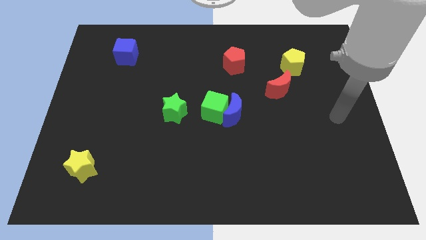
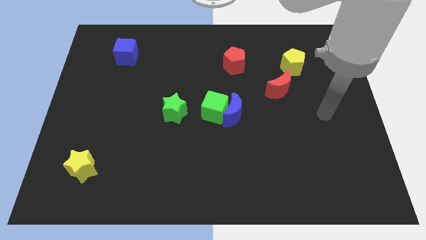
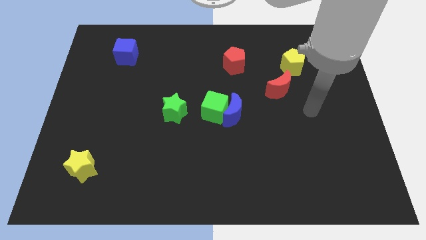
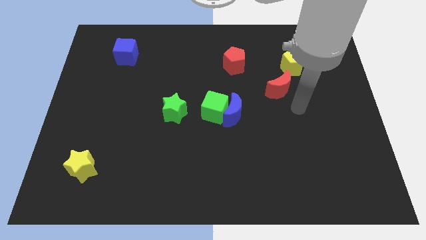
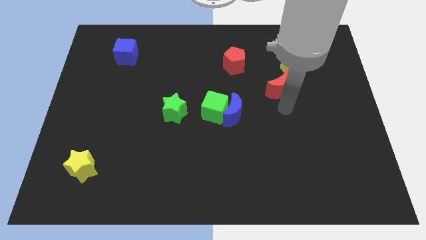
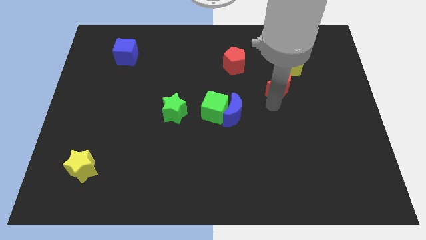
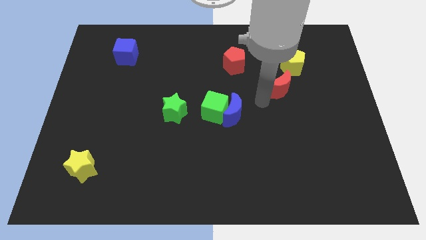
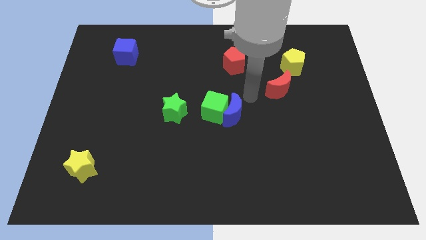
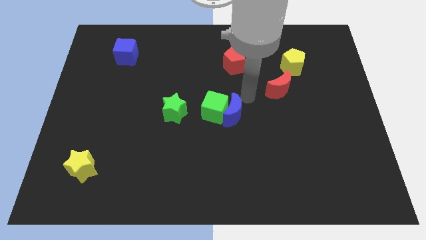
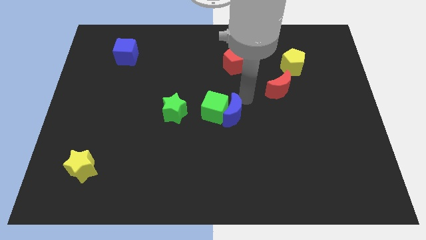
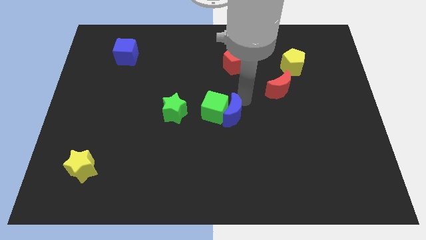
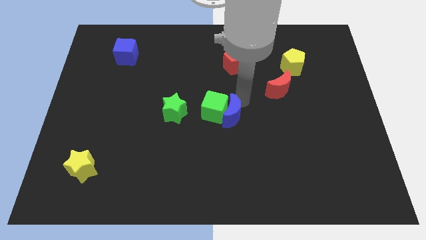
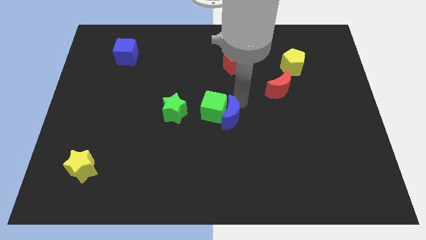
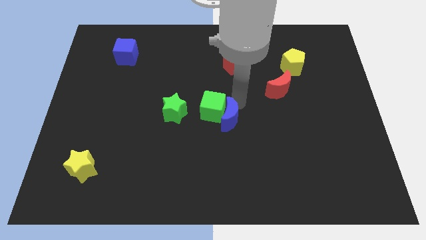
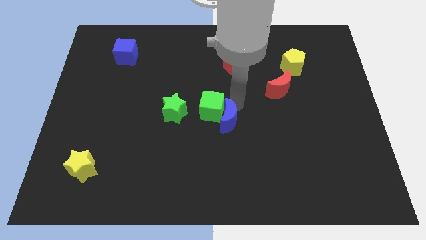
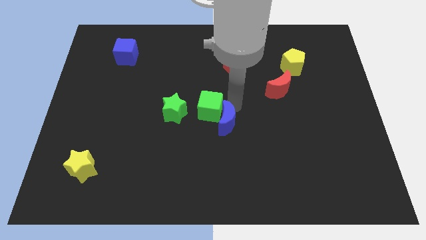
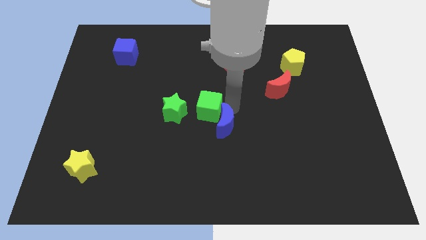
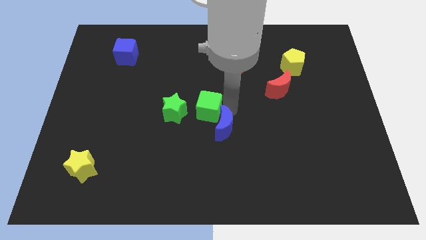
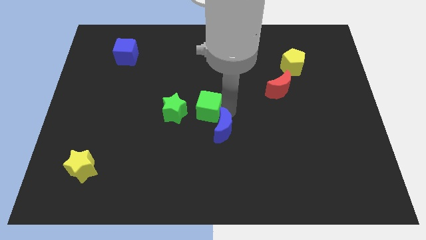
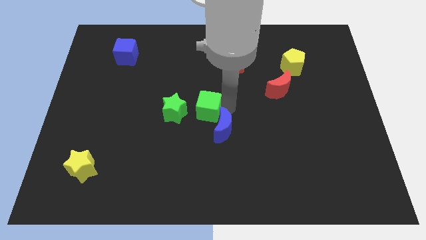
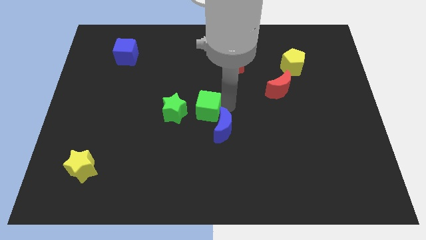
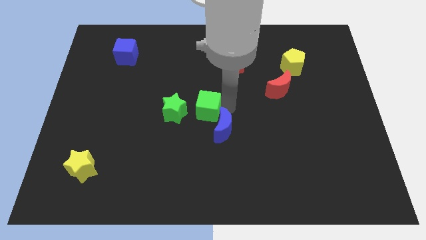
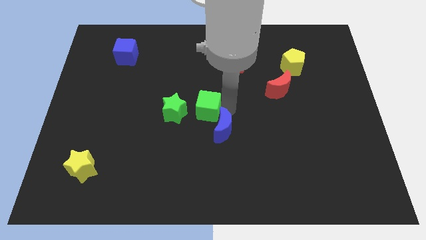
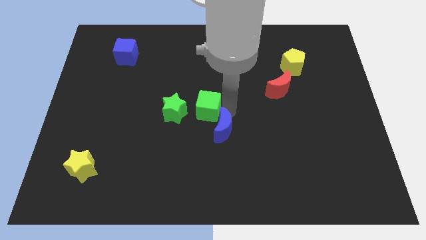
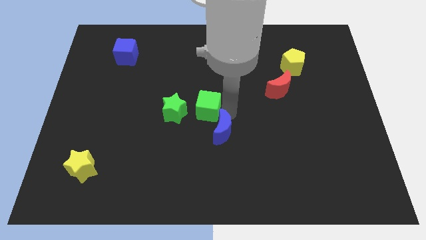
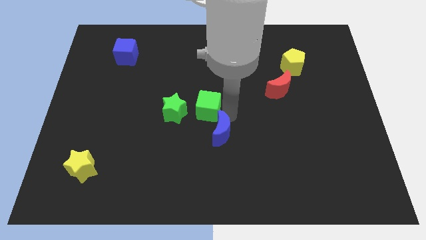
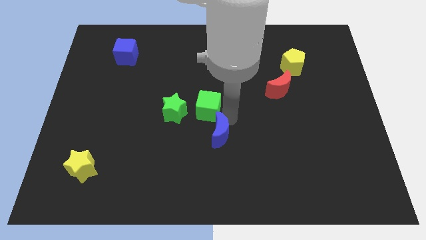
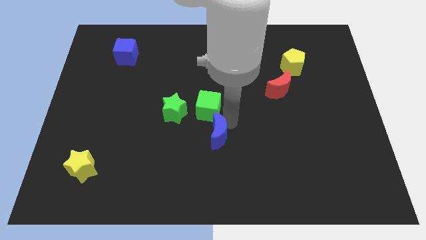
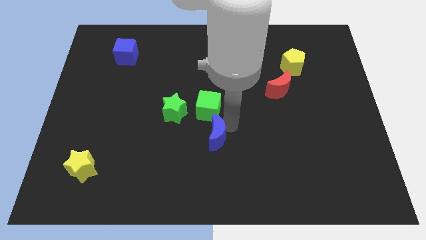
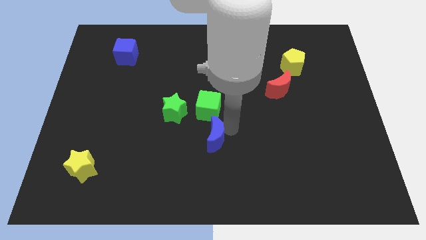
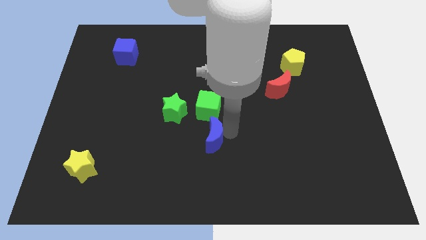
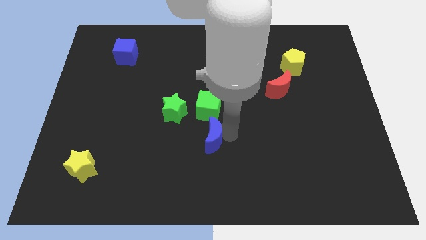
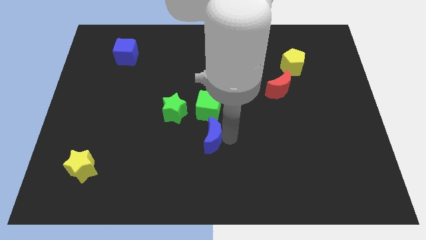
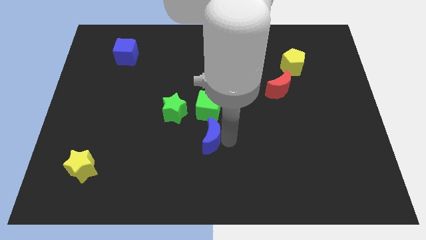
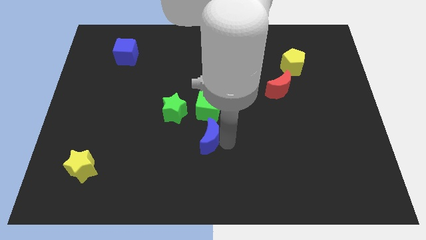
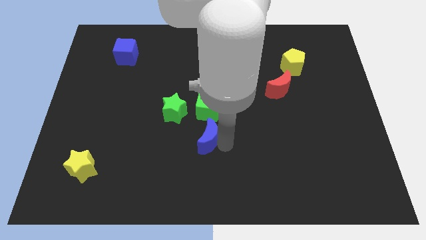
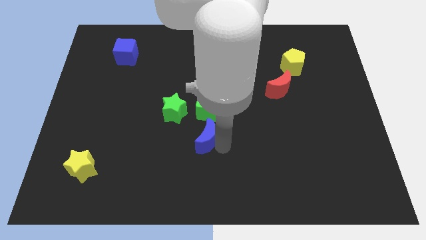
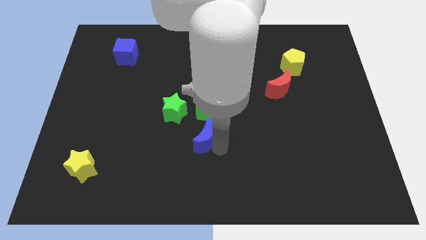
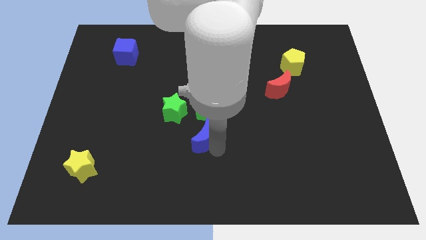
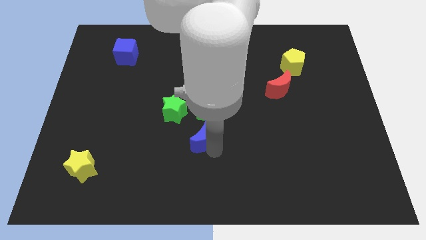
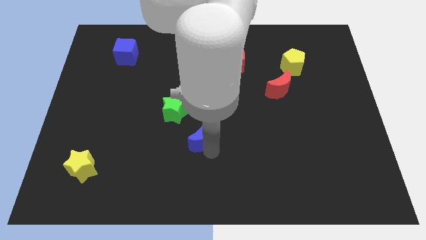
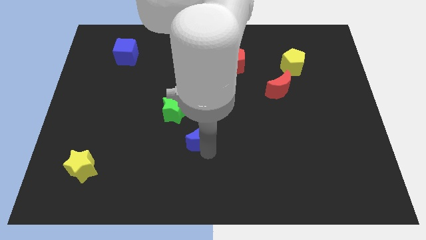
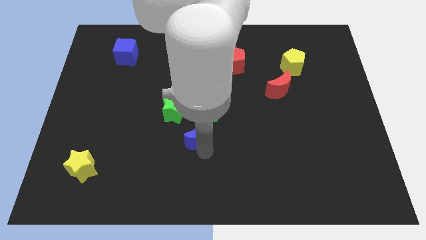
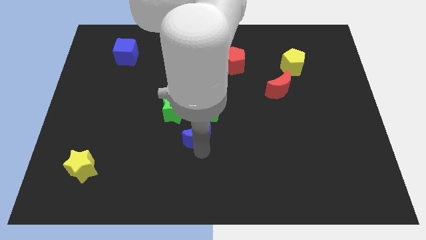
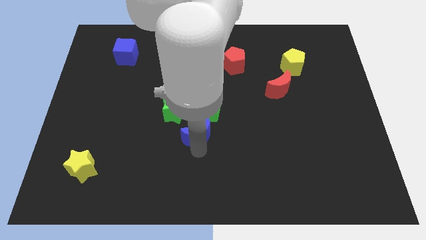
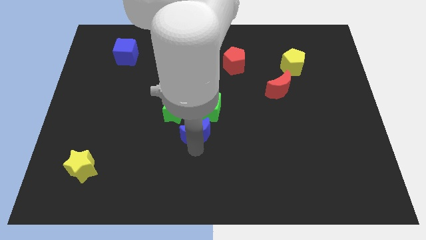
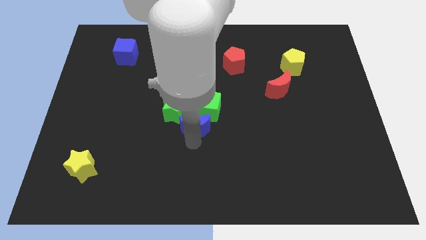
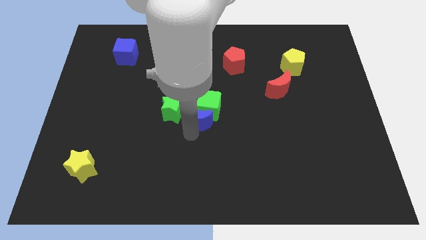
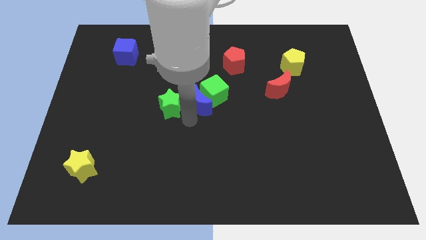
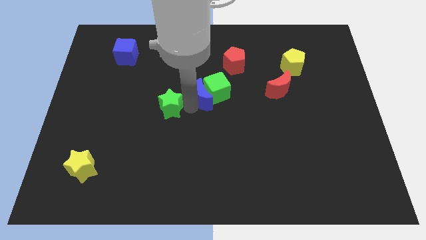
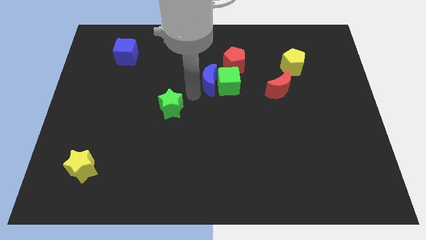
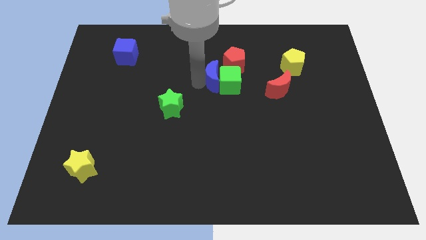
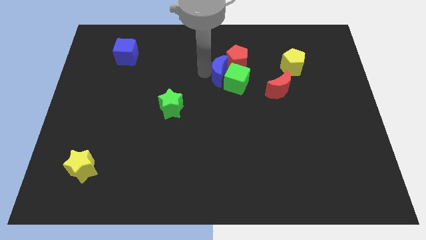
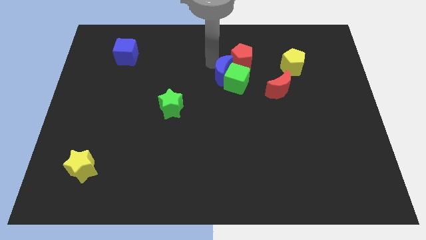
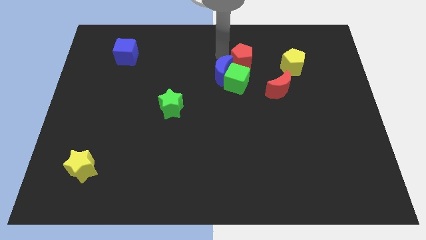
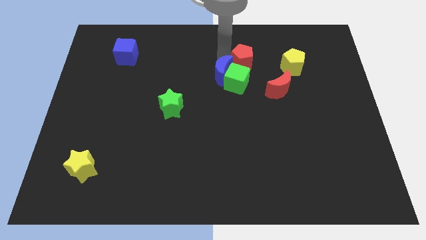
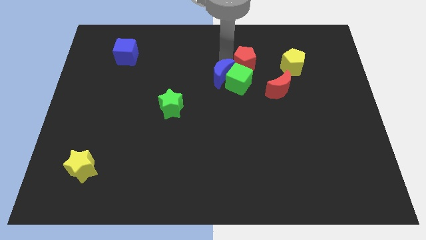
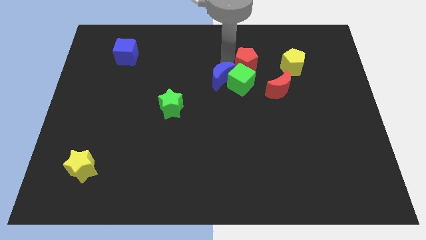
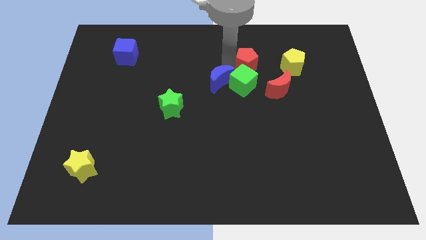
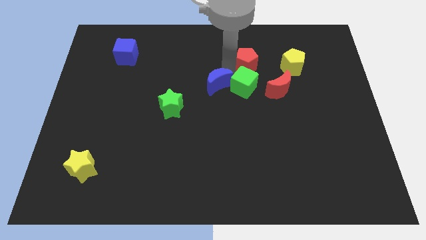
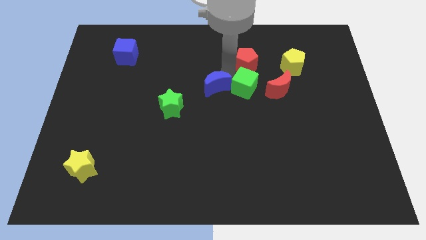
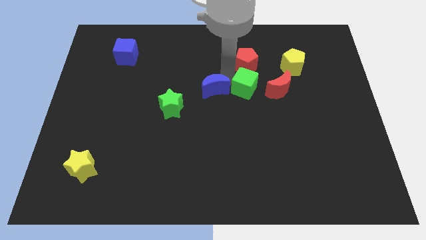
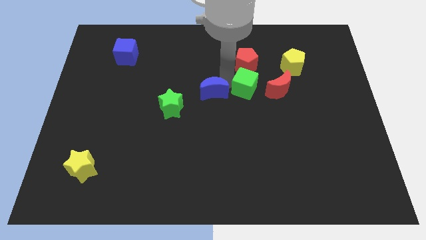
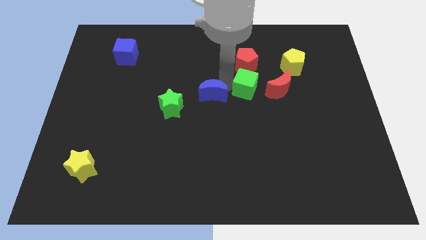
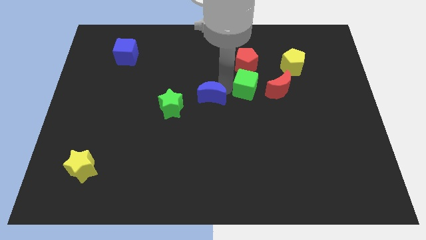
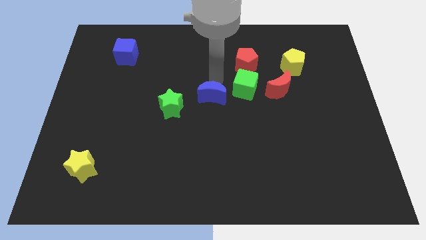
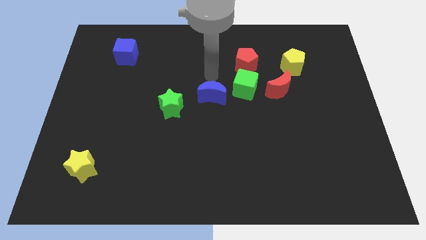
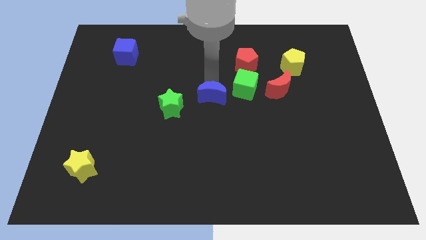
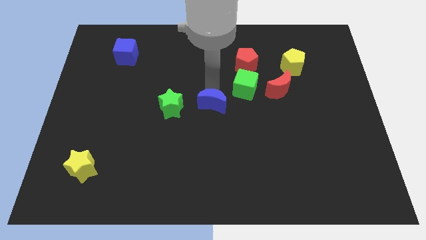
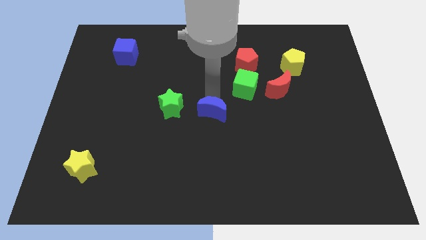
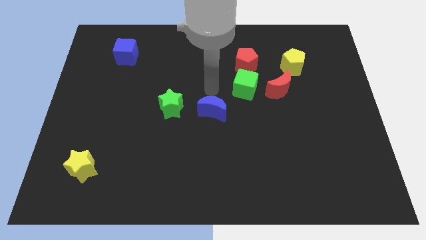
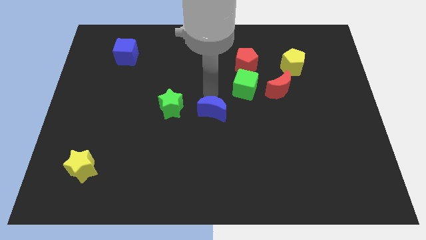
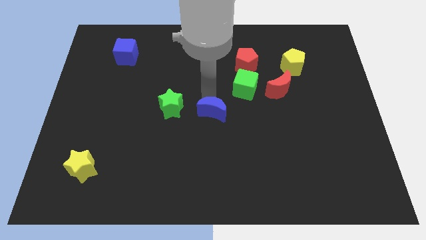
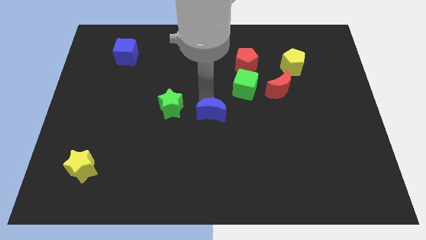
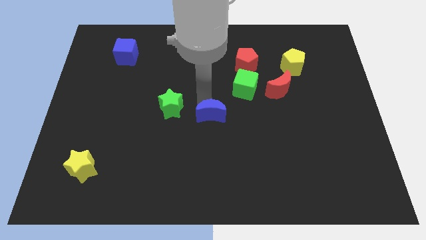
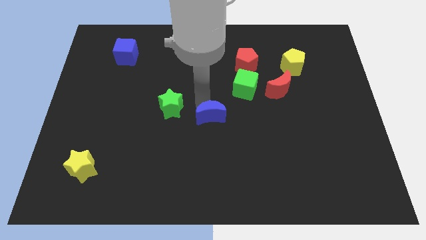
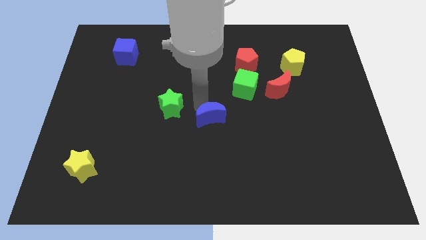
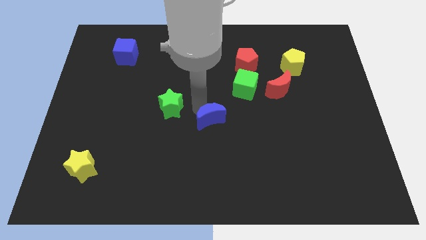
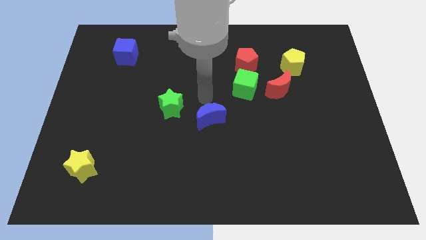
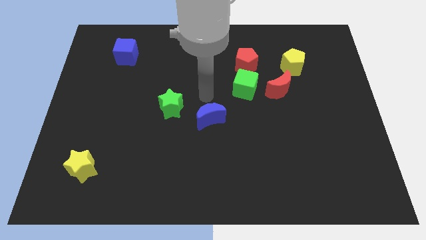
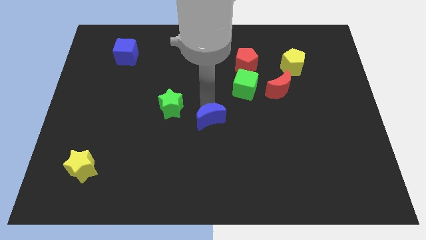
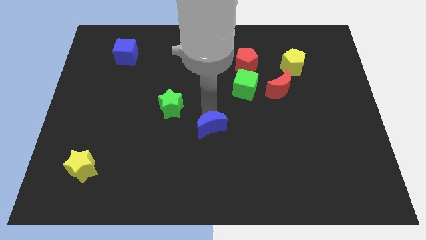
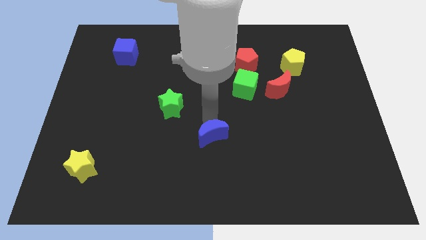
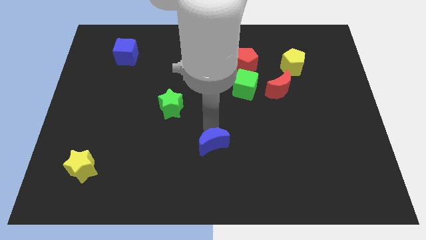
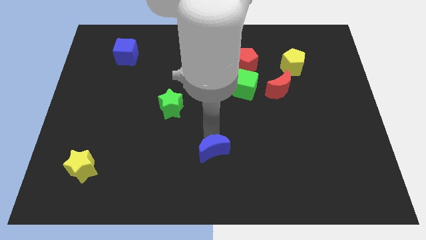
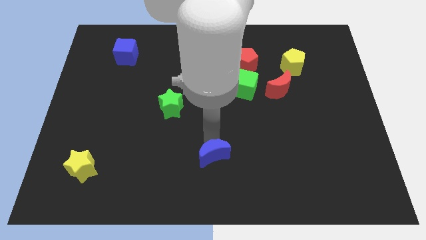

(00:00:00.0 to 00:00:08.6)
push the blue moon to the bottom
